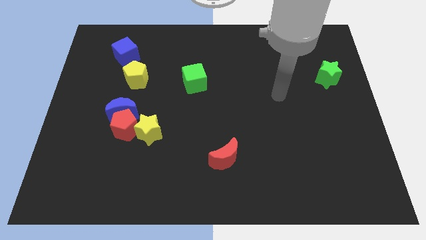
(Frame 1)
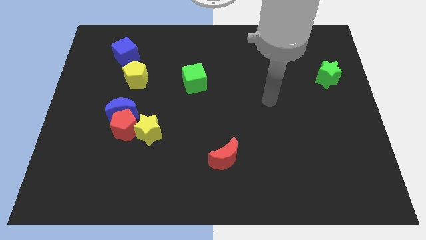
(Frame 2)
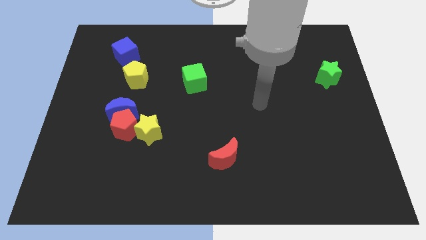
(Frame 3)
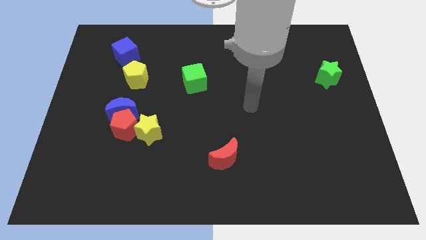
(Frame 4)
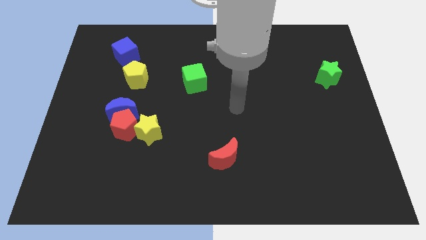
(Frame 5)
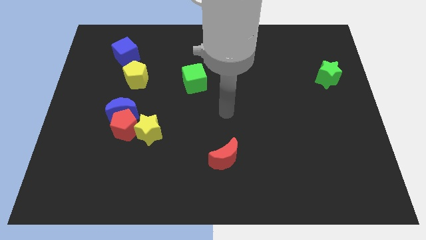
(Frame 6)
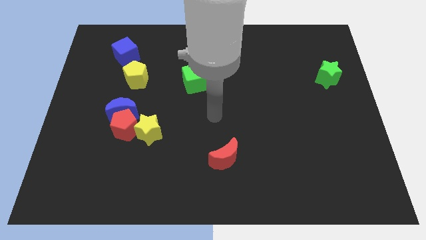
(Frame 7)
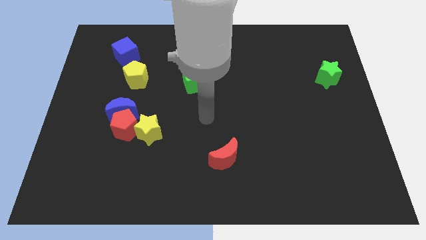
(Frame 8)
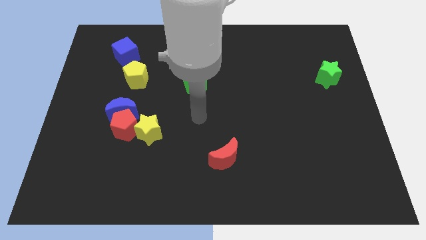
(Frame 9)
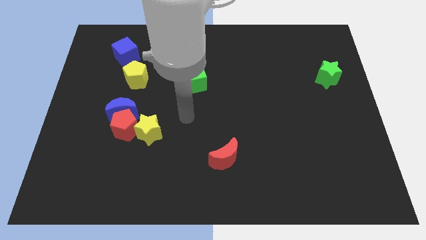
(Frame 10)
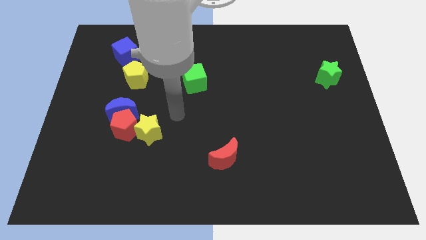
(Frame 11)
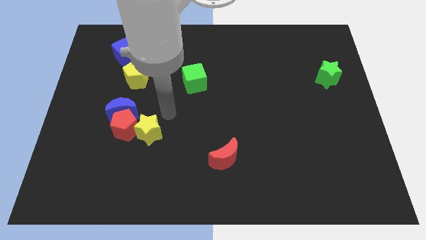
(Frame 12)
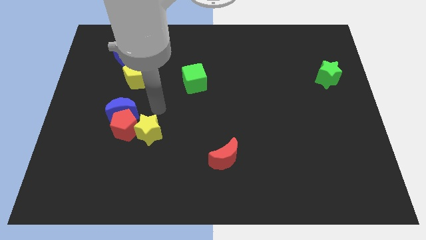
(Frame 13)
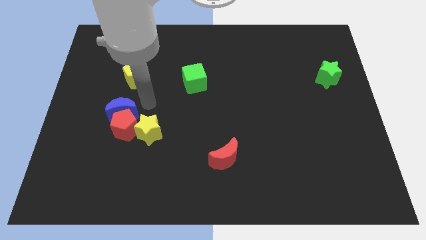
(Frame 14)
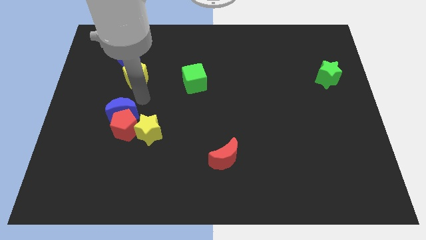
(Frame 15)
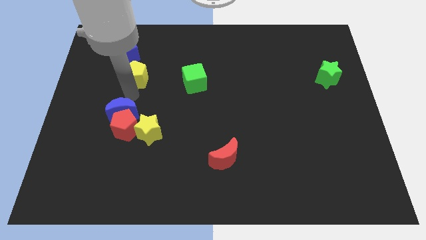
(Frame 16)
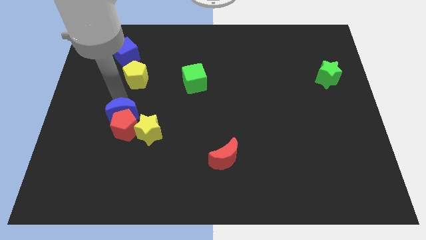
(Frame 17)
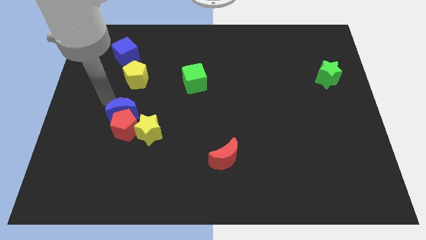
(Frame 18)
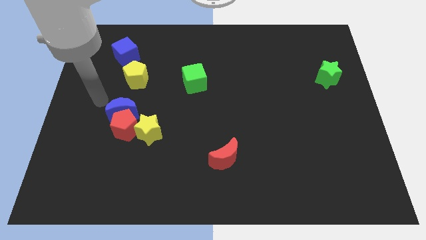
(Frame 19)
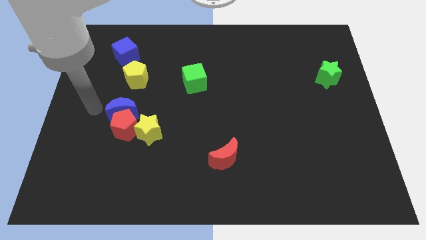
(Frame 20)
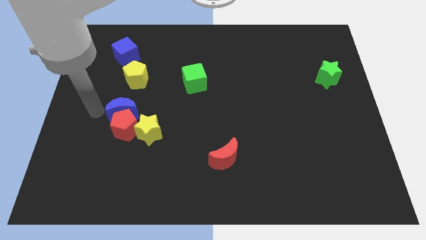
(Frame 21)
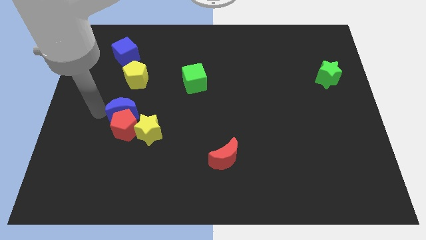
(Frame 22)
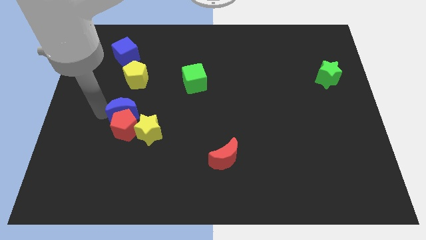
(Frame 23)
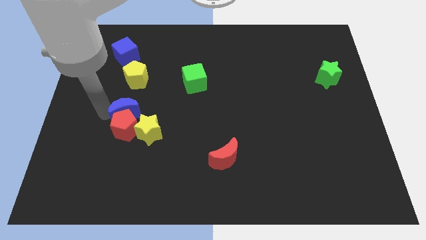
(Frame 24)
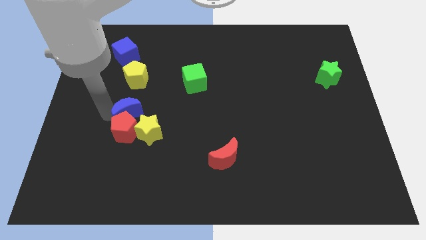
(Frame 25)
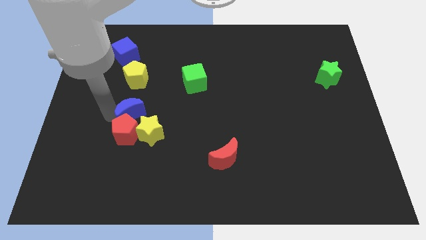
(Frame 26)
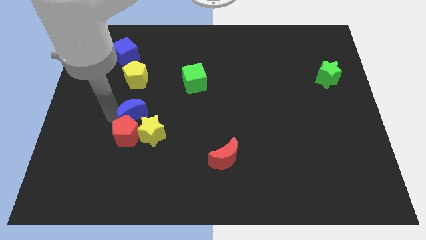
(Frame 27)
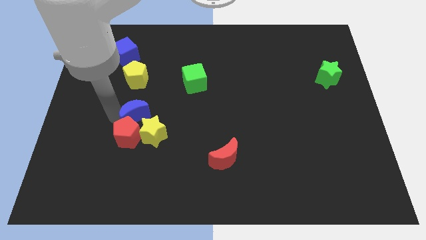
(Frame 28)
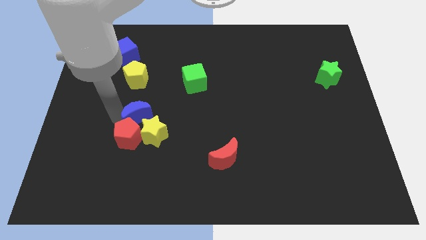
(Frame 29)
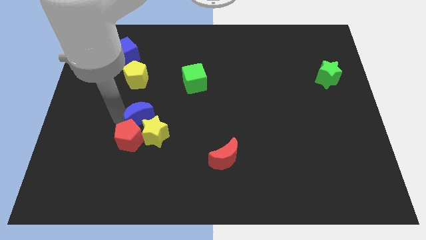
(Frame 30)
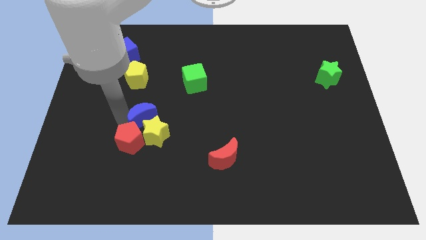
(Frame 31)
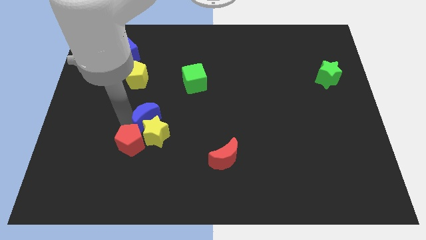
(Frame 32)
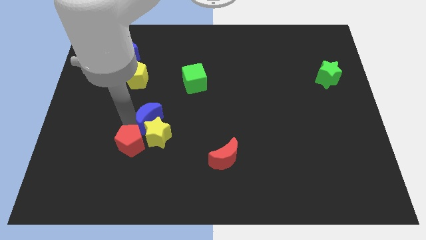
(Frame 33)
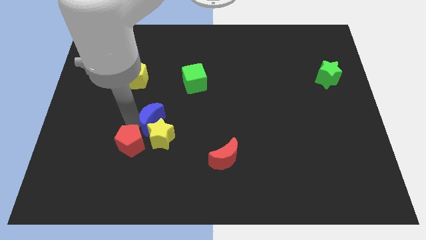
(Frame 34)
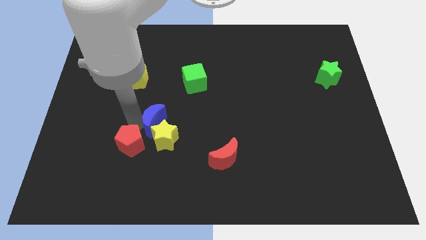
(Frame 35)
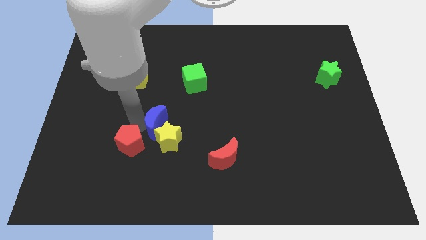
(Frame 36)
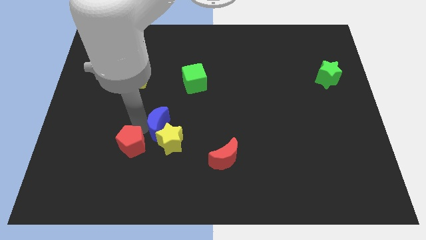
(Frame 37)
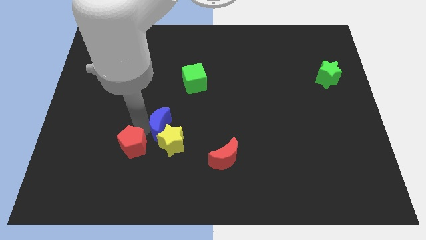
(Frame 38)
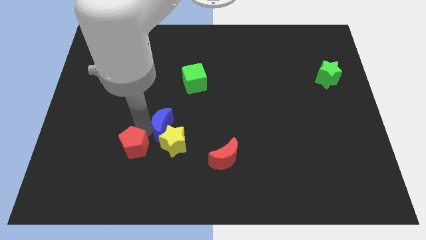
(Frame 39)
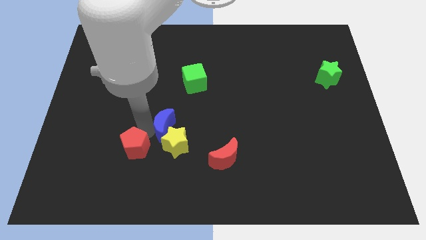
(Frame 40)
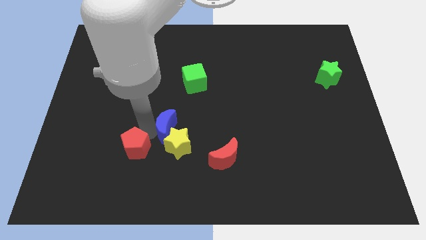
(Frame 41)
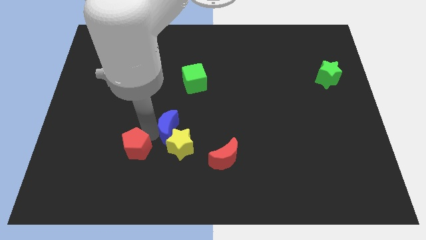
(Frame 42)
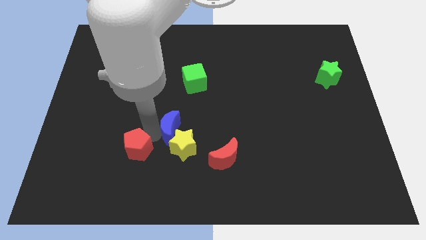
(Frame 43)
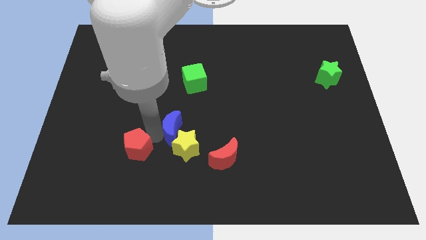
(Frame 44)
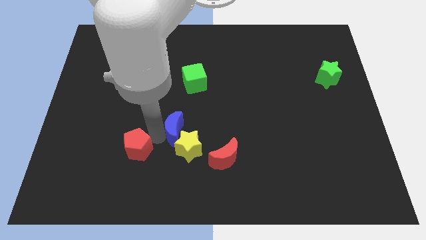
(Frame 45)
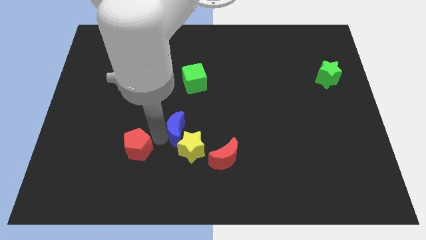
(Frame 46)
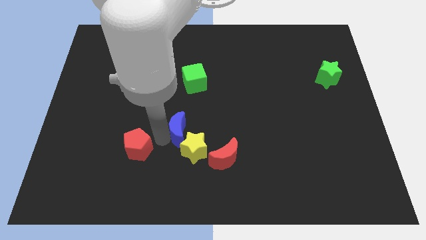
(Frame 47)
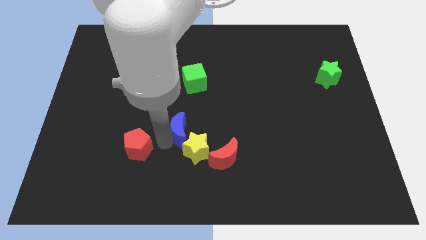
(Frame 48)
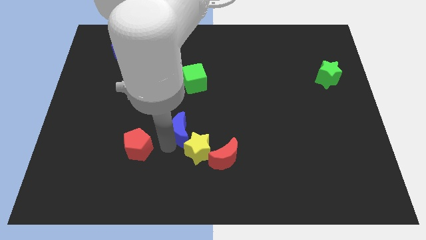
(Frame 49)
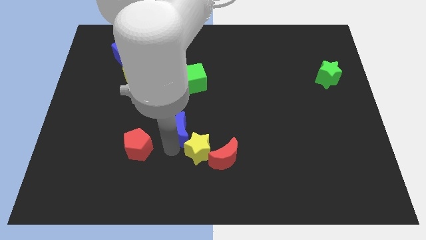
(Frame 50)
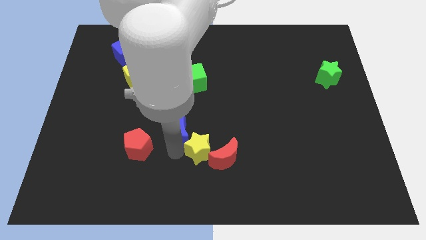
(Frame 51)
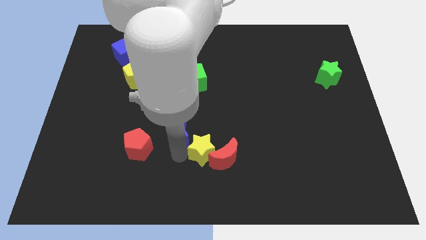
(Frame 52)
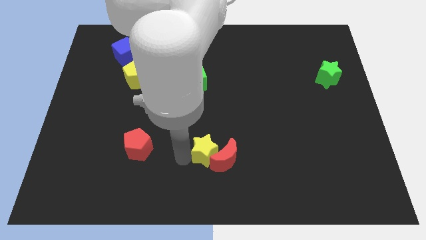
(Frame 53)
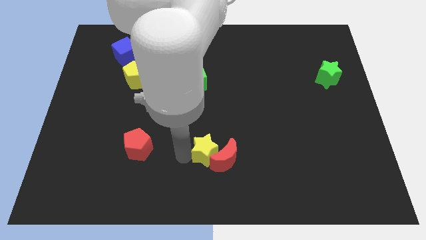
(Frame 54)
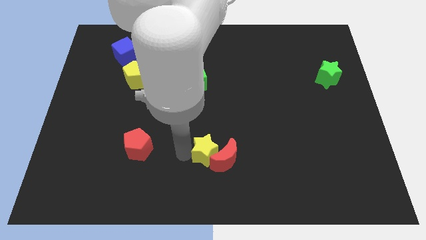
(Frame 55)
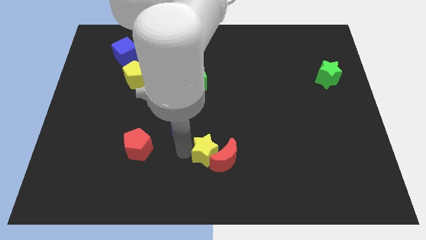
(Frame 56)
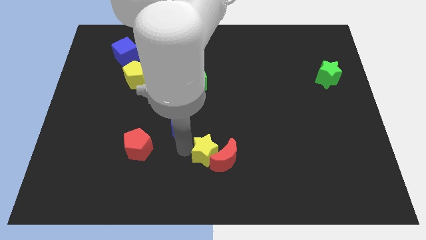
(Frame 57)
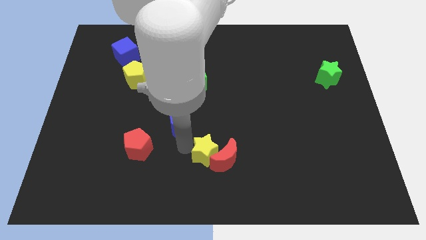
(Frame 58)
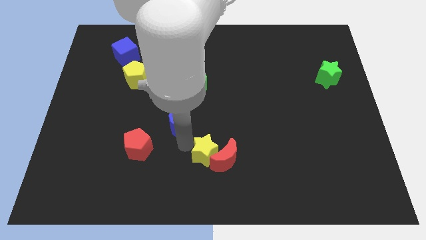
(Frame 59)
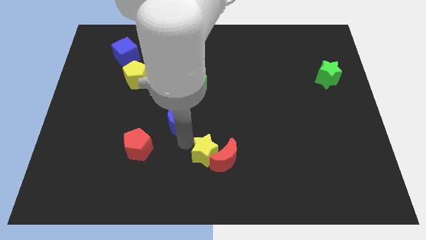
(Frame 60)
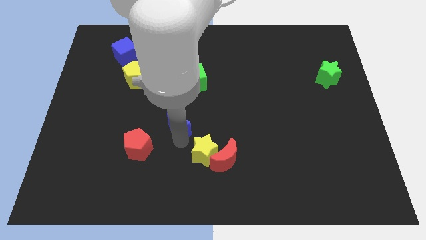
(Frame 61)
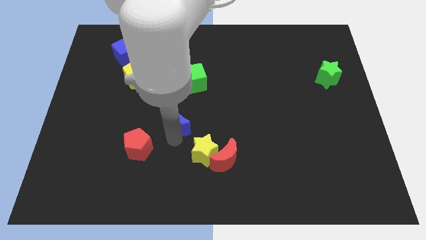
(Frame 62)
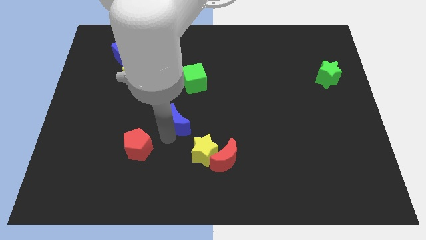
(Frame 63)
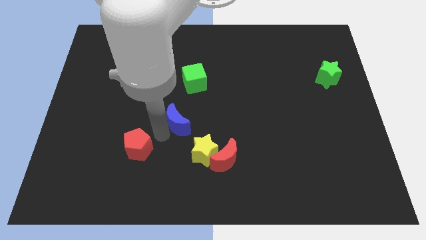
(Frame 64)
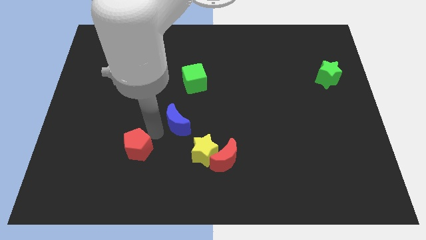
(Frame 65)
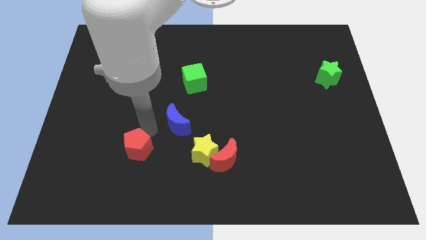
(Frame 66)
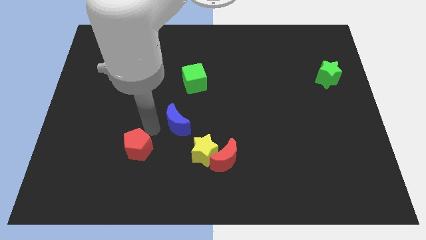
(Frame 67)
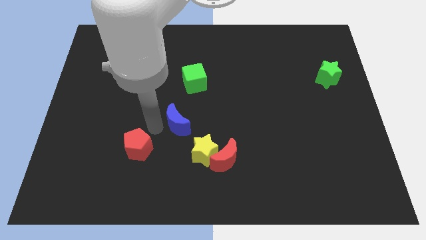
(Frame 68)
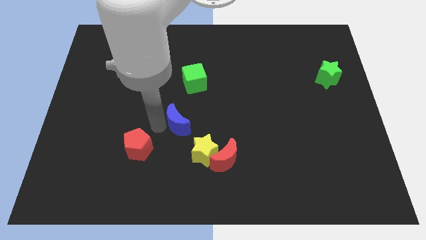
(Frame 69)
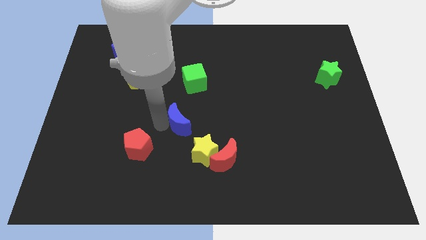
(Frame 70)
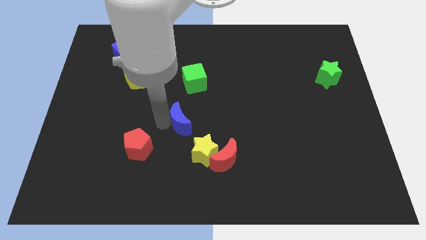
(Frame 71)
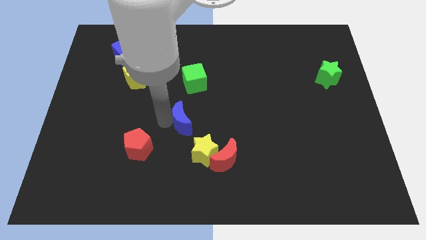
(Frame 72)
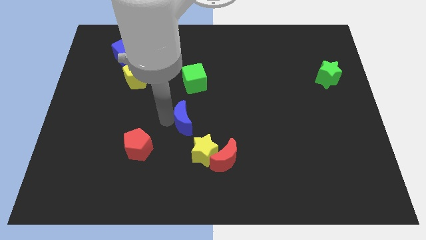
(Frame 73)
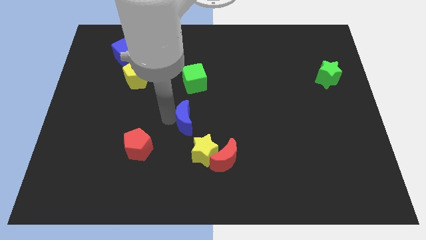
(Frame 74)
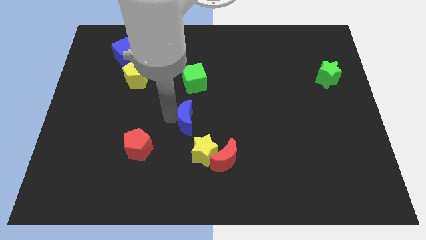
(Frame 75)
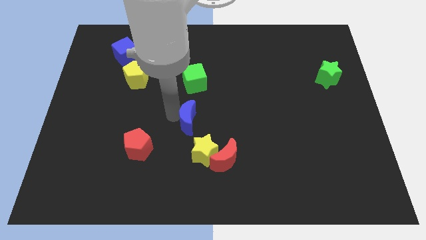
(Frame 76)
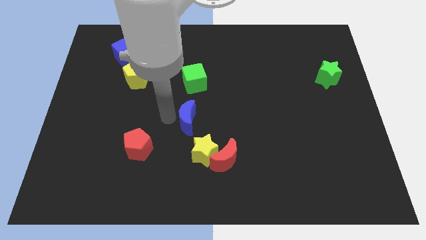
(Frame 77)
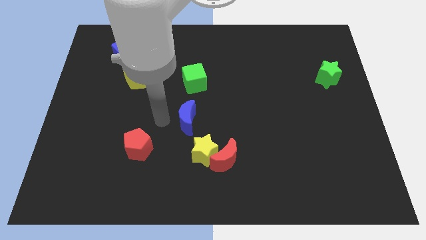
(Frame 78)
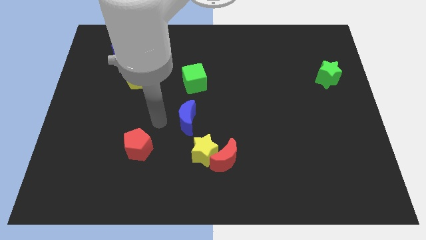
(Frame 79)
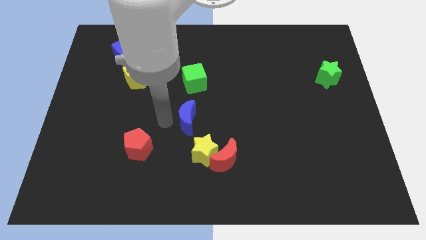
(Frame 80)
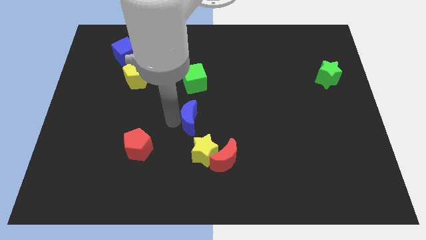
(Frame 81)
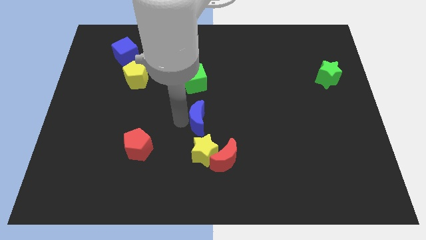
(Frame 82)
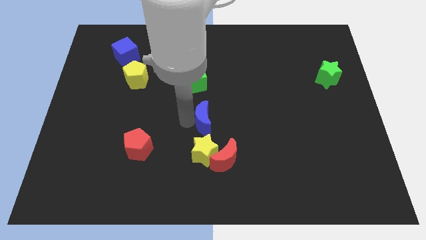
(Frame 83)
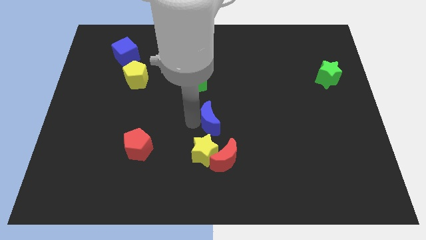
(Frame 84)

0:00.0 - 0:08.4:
move the blue moon to the right
